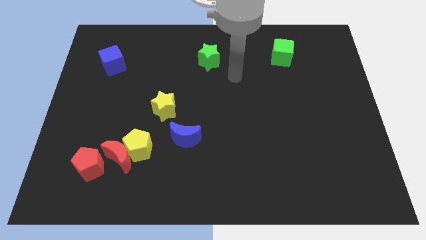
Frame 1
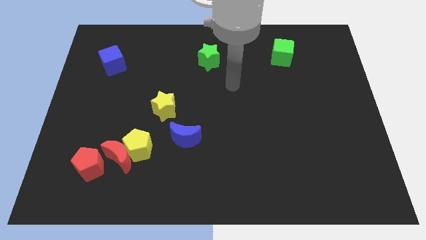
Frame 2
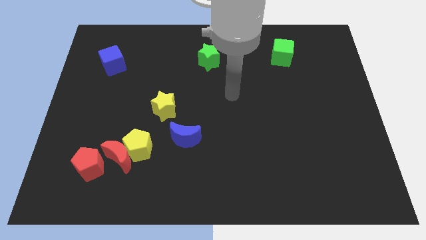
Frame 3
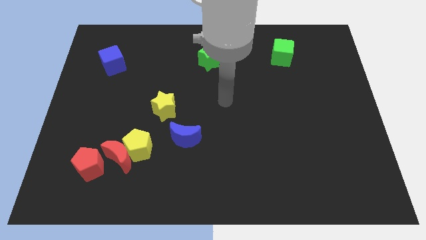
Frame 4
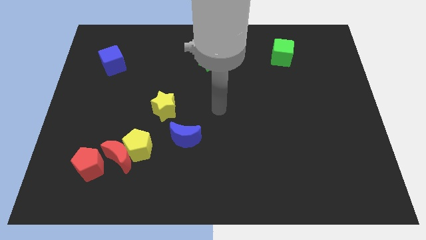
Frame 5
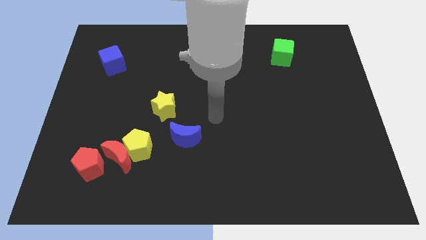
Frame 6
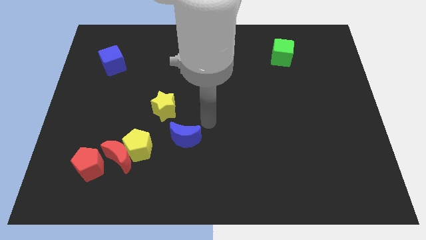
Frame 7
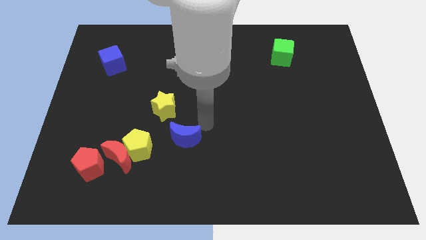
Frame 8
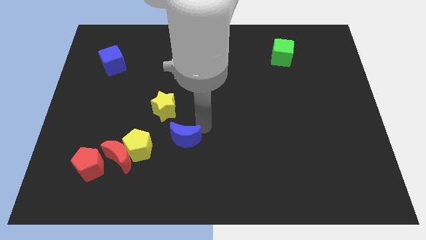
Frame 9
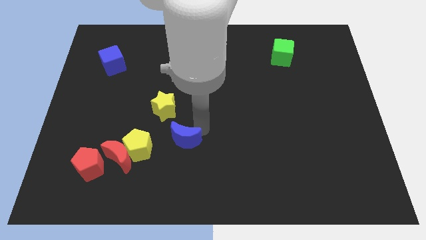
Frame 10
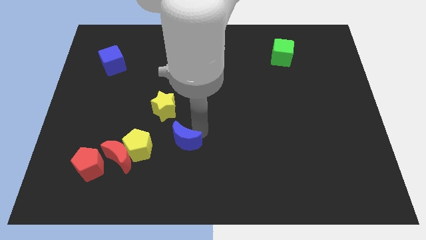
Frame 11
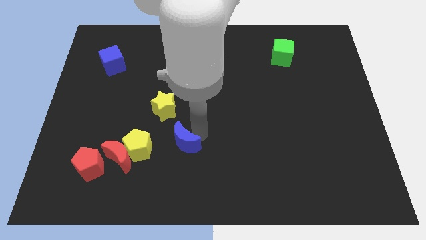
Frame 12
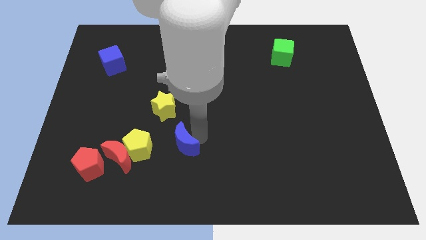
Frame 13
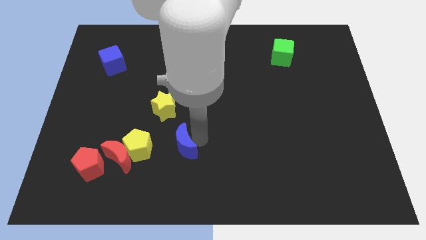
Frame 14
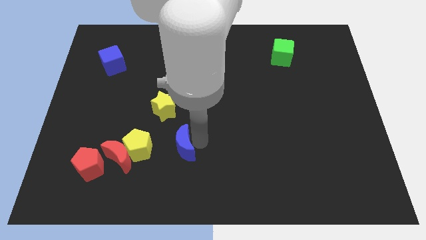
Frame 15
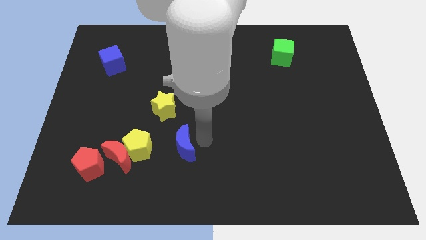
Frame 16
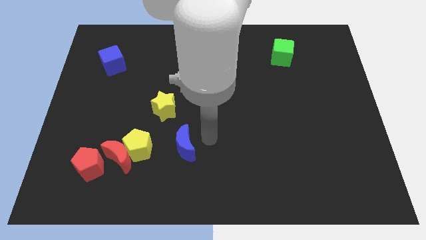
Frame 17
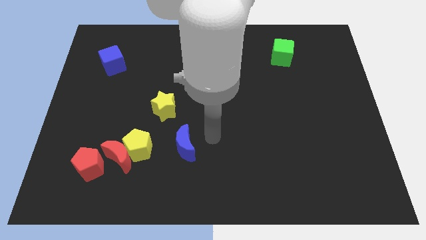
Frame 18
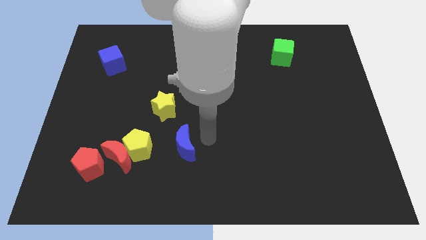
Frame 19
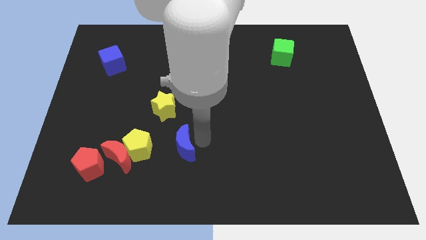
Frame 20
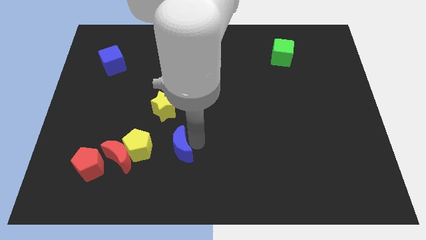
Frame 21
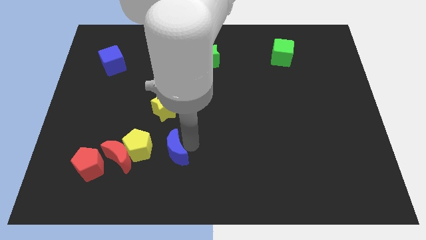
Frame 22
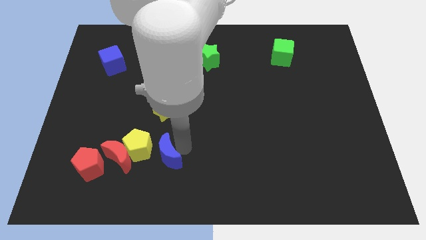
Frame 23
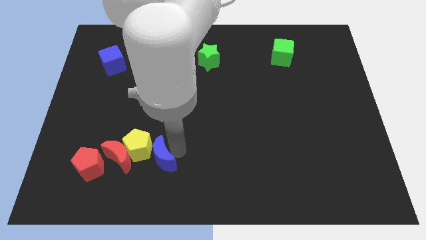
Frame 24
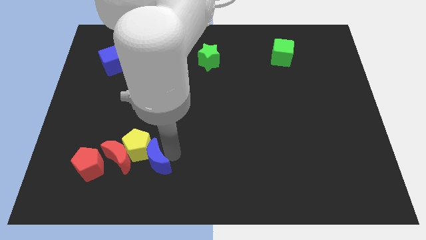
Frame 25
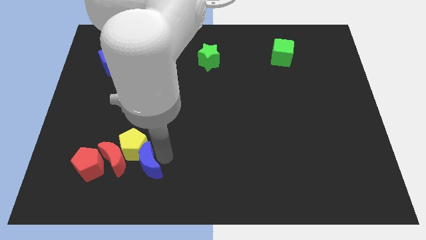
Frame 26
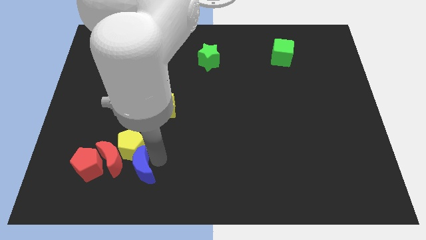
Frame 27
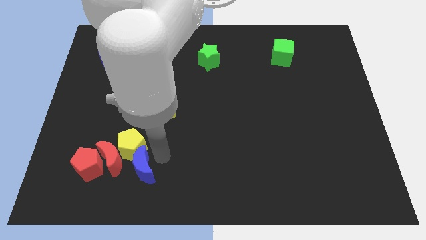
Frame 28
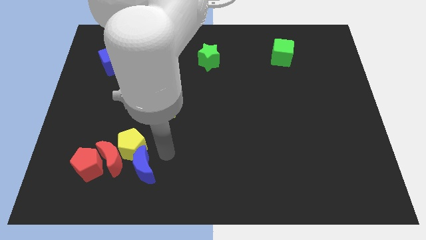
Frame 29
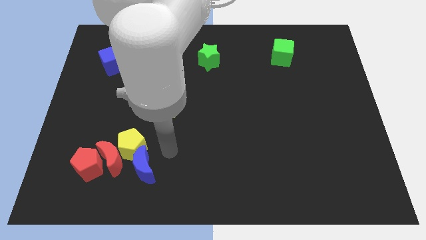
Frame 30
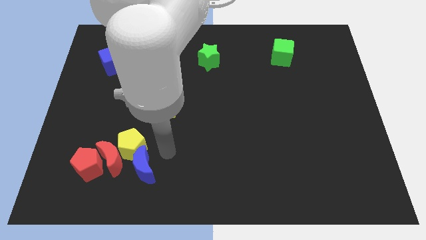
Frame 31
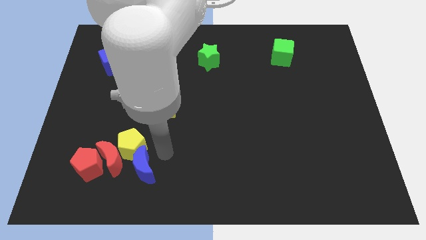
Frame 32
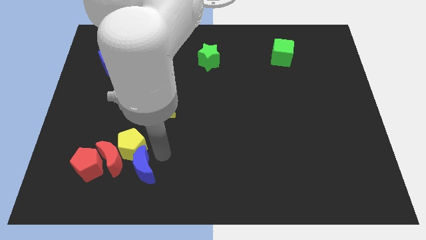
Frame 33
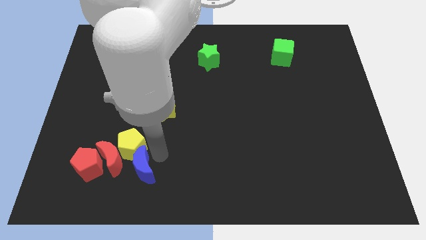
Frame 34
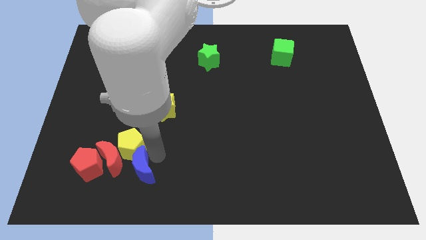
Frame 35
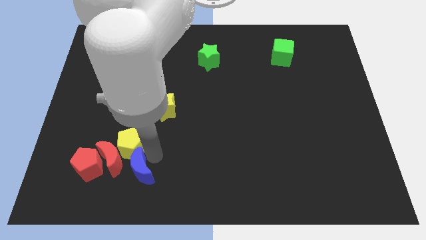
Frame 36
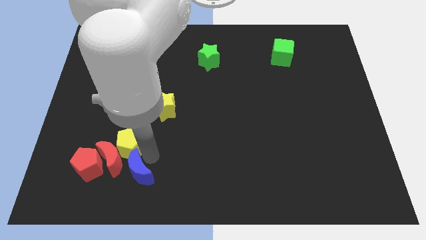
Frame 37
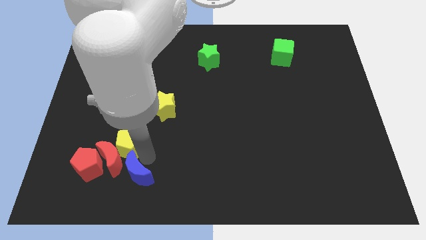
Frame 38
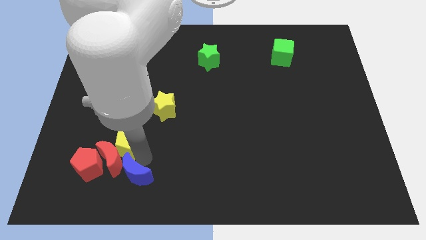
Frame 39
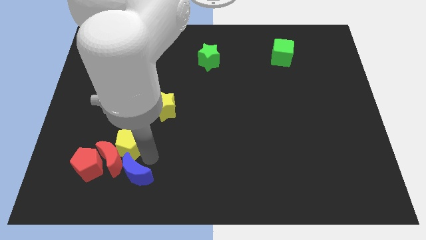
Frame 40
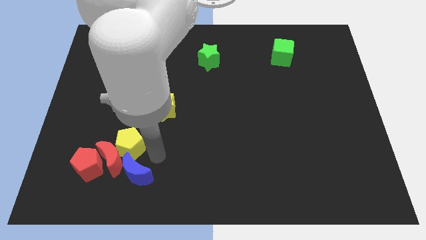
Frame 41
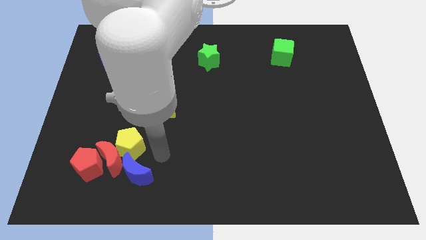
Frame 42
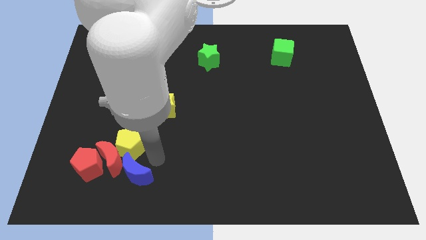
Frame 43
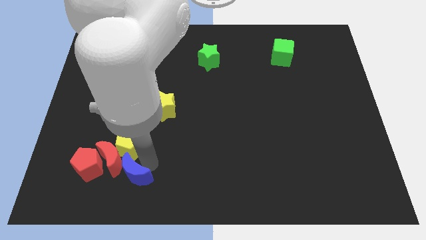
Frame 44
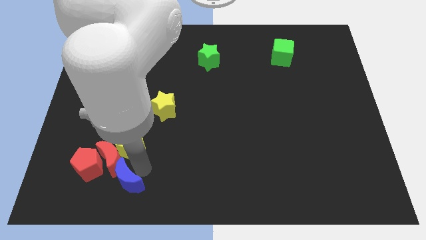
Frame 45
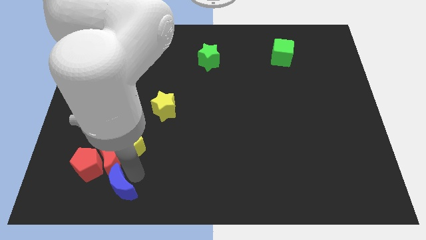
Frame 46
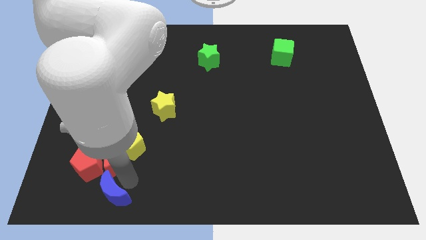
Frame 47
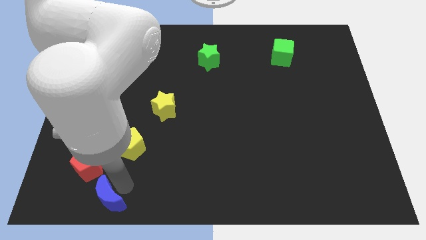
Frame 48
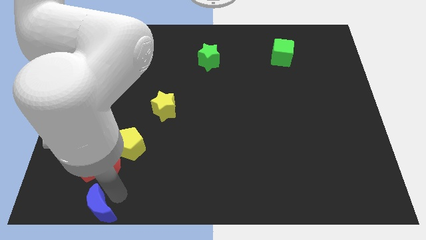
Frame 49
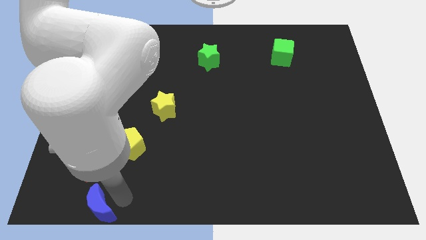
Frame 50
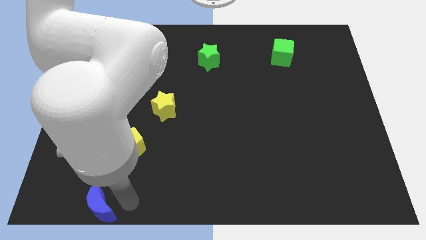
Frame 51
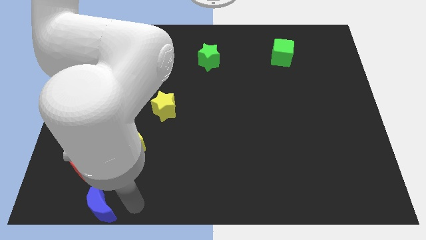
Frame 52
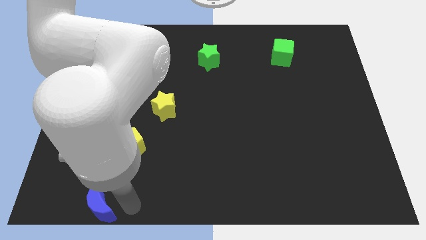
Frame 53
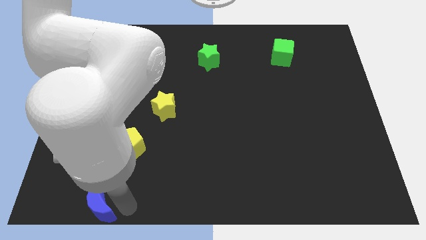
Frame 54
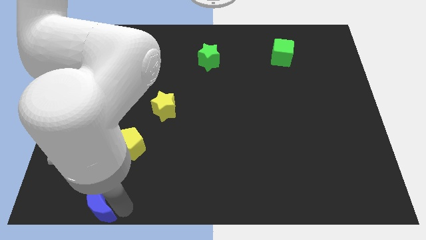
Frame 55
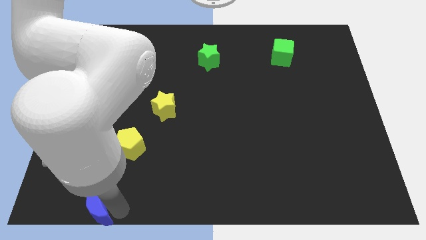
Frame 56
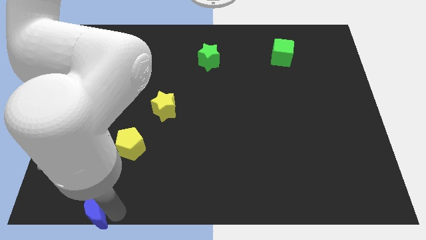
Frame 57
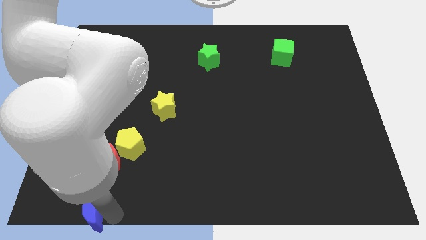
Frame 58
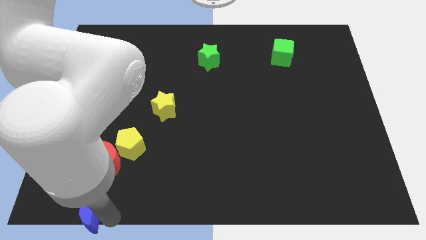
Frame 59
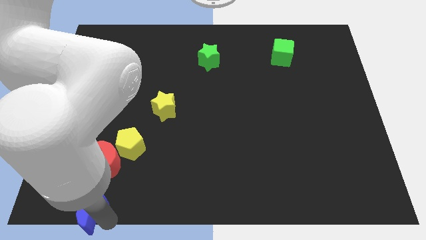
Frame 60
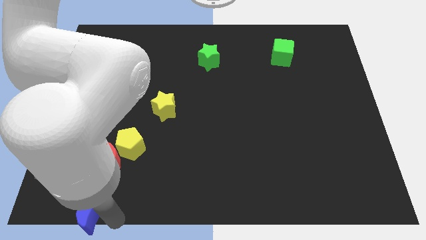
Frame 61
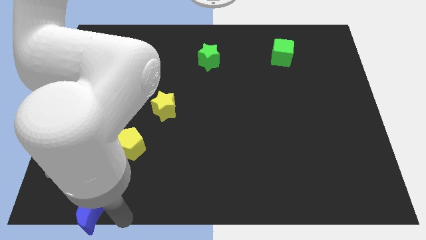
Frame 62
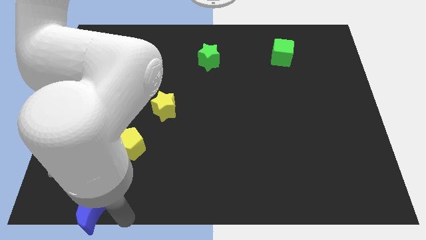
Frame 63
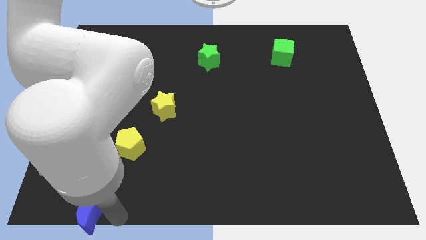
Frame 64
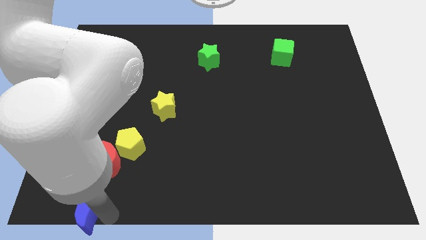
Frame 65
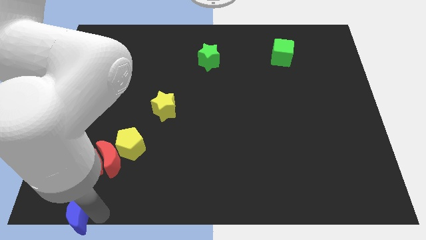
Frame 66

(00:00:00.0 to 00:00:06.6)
push the blue moon to the lower left corner
